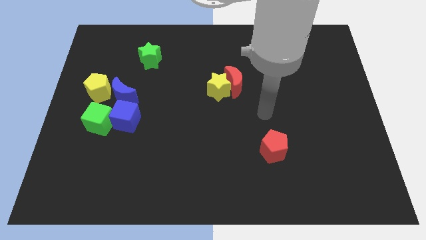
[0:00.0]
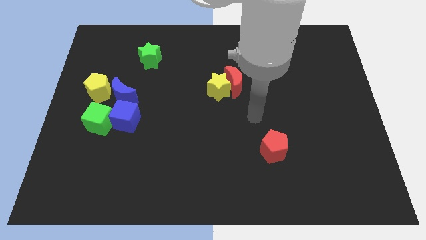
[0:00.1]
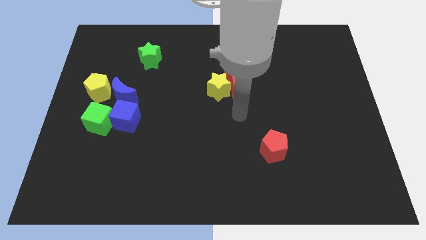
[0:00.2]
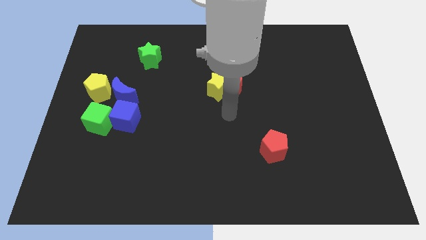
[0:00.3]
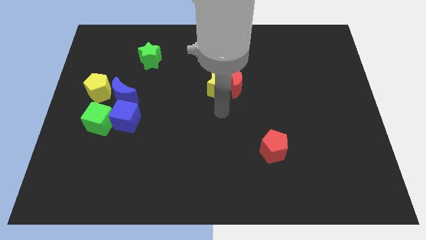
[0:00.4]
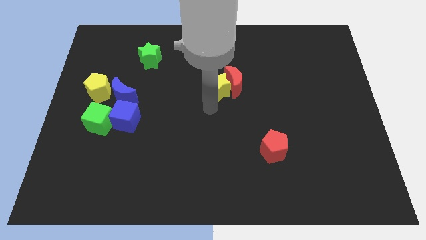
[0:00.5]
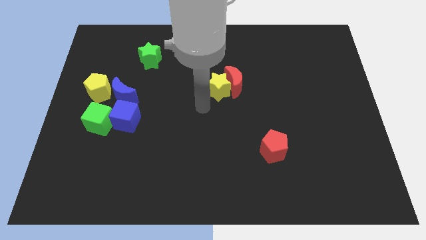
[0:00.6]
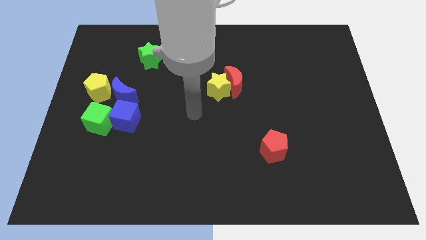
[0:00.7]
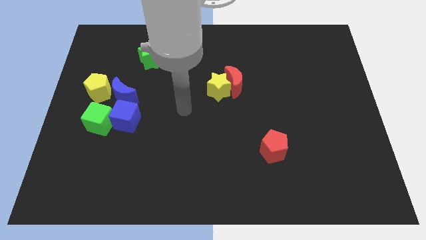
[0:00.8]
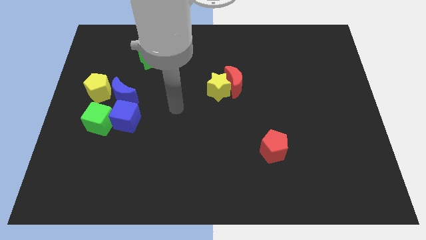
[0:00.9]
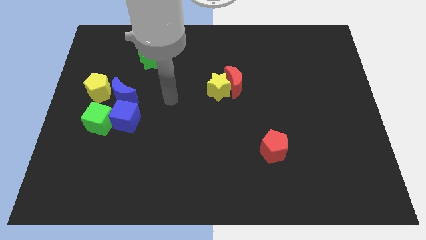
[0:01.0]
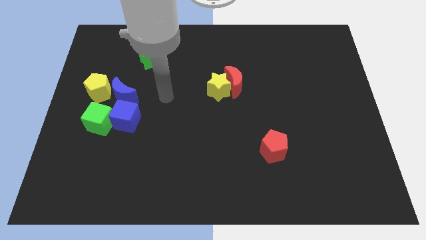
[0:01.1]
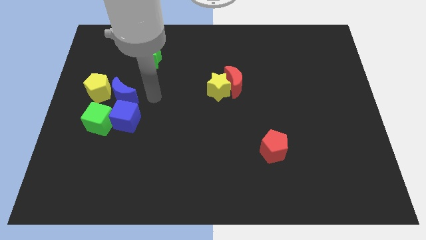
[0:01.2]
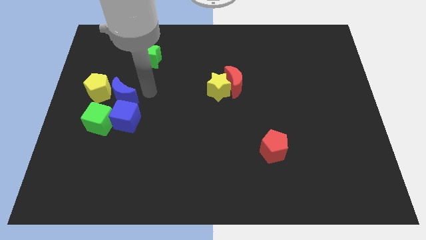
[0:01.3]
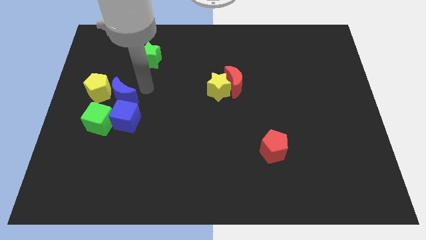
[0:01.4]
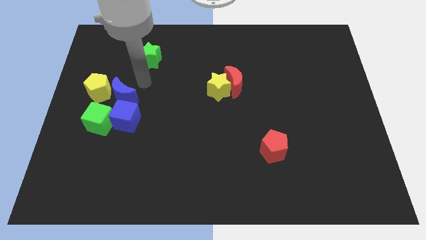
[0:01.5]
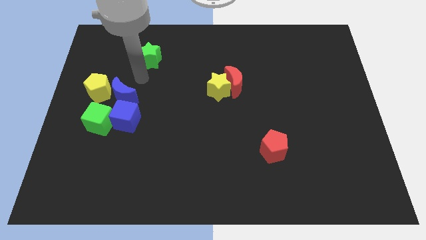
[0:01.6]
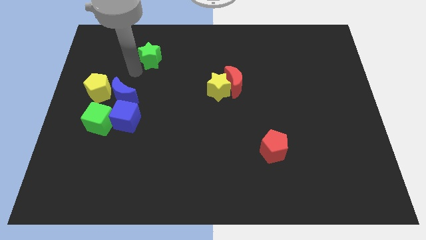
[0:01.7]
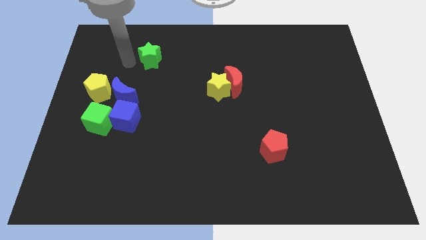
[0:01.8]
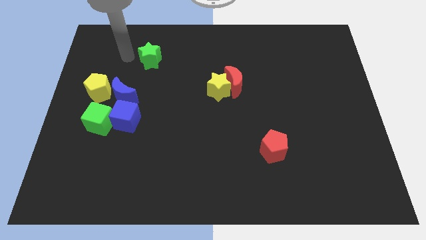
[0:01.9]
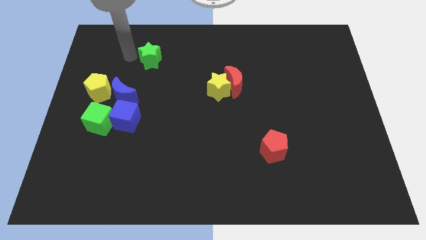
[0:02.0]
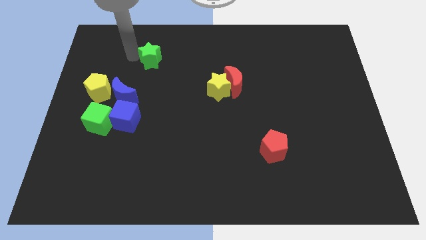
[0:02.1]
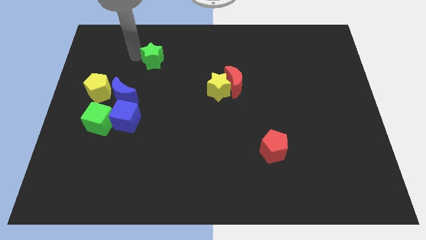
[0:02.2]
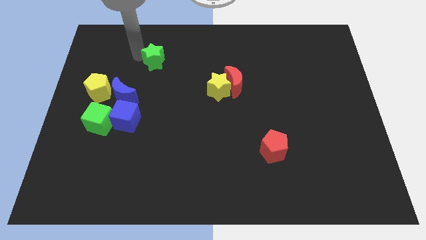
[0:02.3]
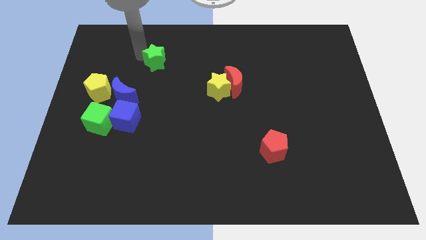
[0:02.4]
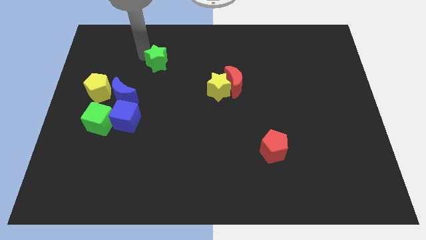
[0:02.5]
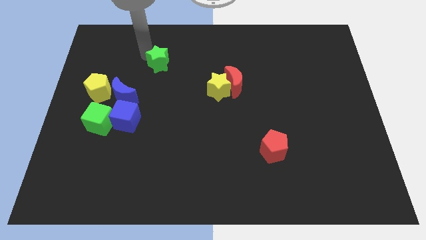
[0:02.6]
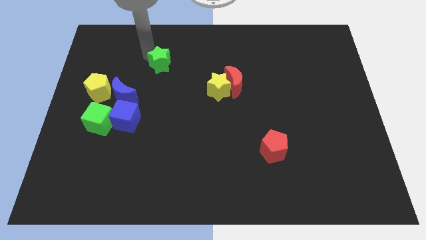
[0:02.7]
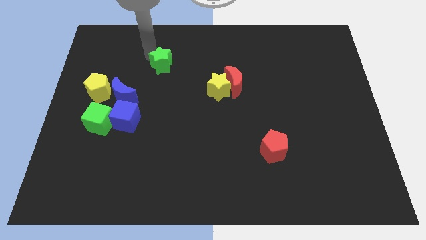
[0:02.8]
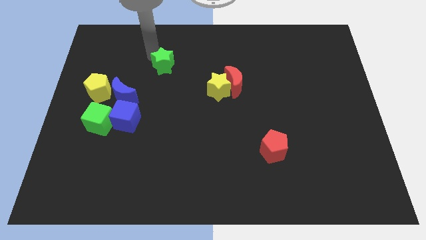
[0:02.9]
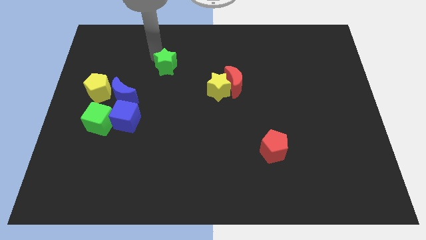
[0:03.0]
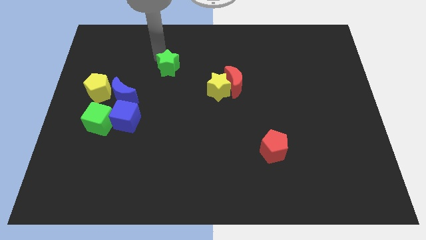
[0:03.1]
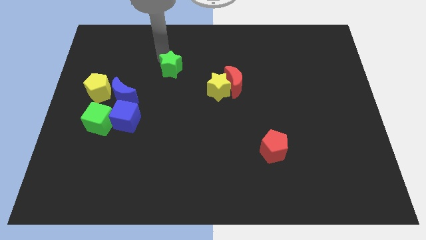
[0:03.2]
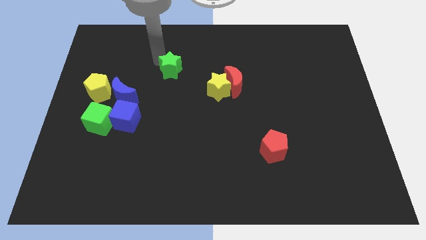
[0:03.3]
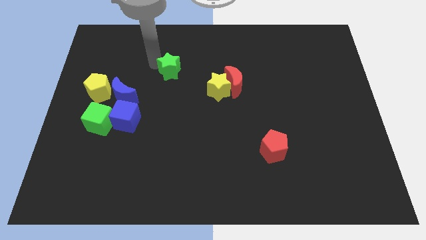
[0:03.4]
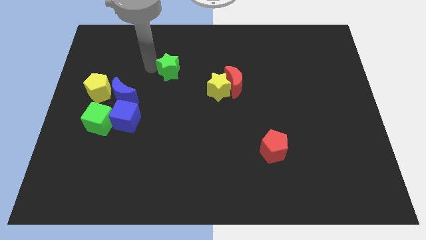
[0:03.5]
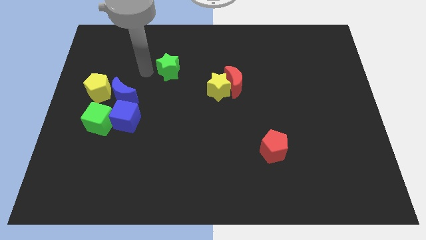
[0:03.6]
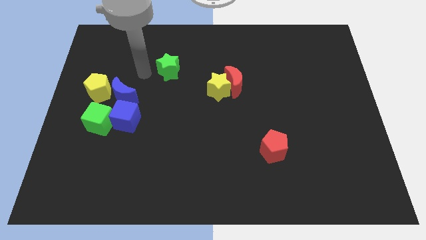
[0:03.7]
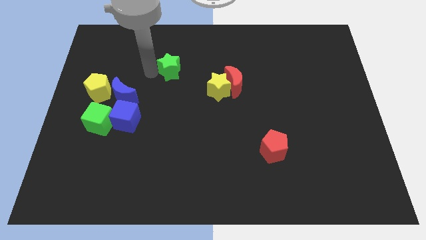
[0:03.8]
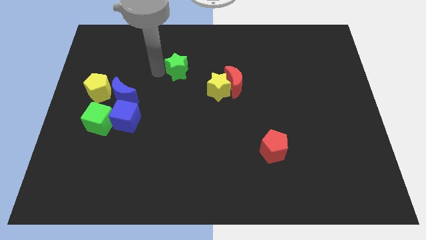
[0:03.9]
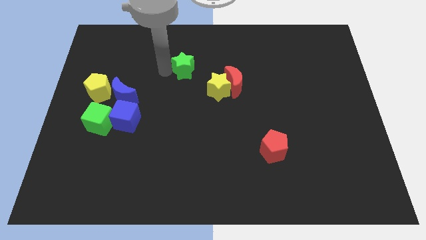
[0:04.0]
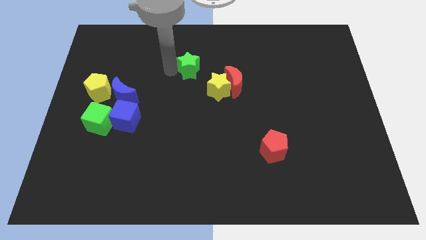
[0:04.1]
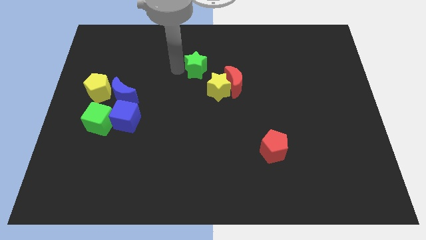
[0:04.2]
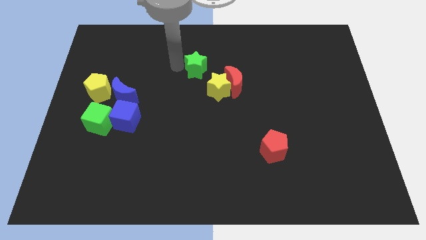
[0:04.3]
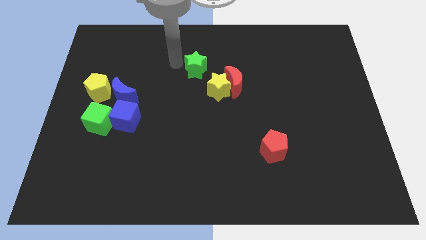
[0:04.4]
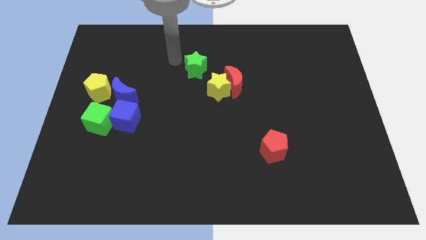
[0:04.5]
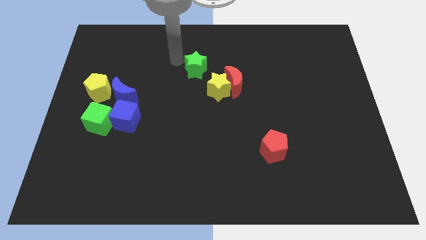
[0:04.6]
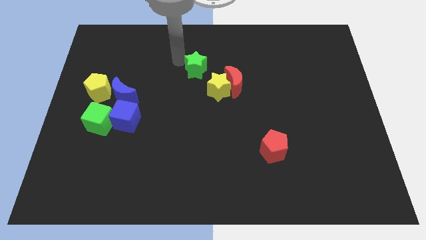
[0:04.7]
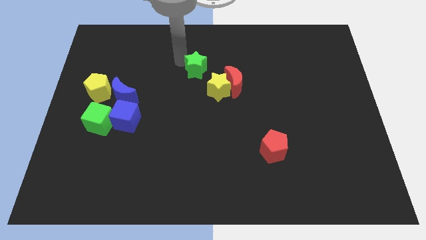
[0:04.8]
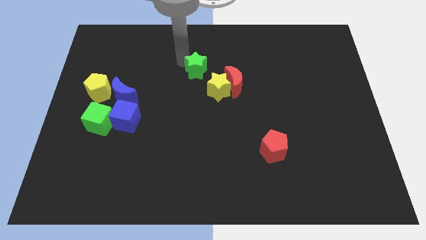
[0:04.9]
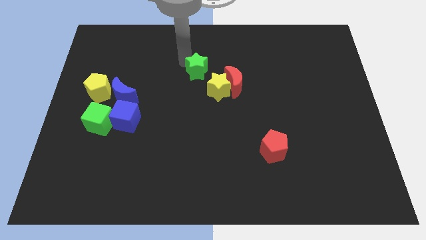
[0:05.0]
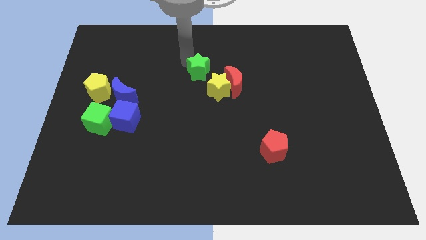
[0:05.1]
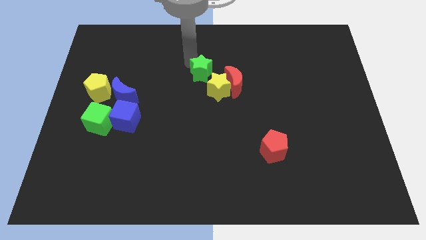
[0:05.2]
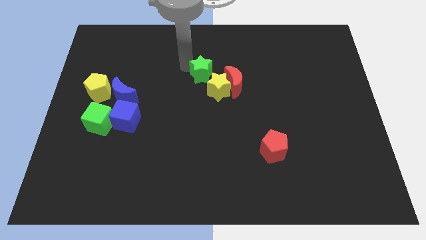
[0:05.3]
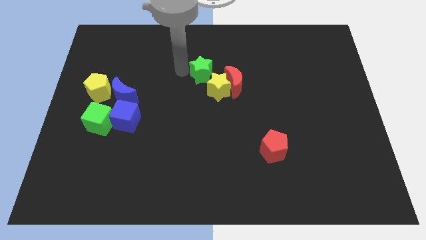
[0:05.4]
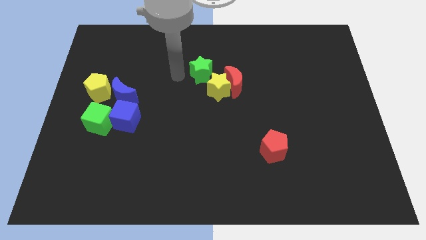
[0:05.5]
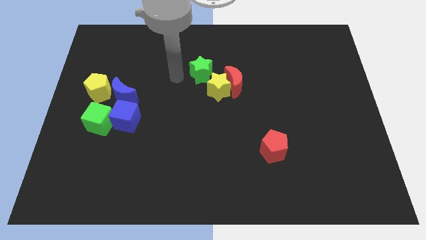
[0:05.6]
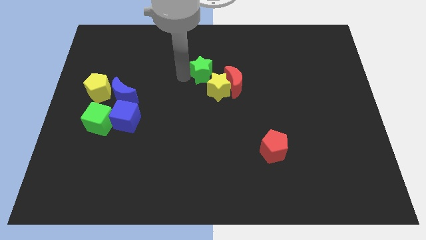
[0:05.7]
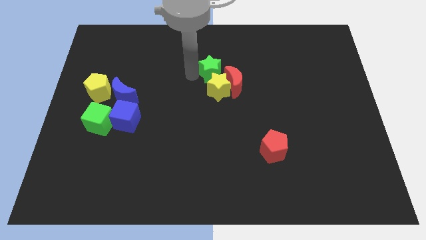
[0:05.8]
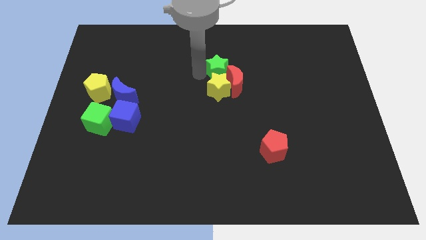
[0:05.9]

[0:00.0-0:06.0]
put the green star to the red moon

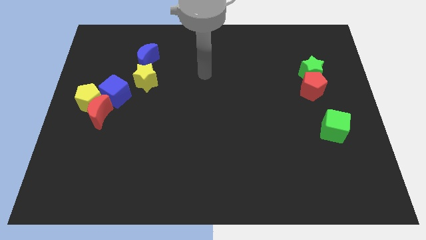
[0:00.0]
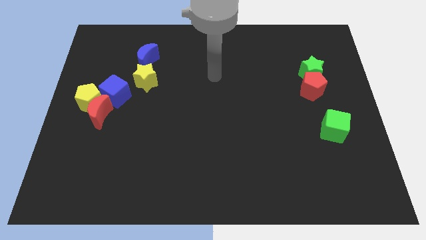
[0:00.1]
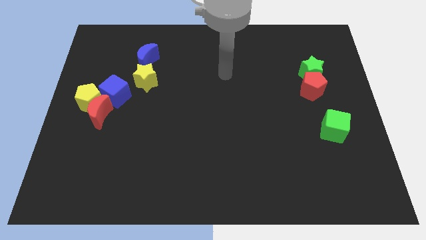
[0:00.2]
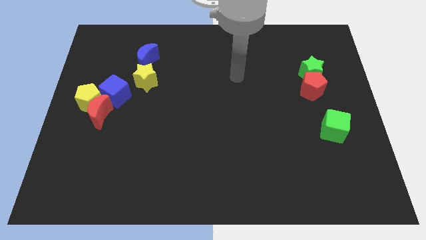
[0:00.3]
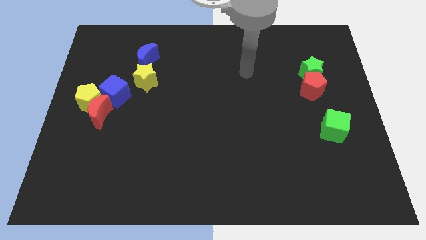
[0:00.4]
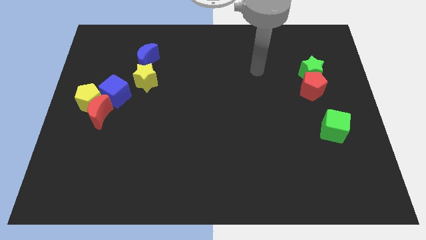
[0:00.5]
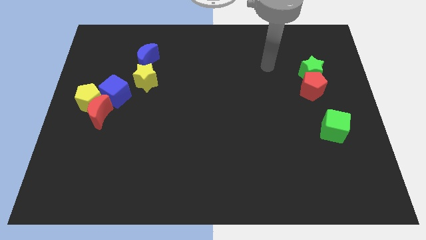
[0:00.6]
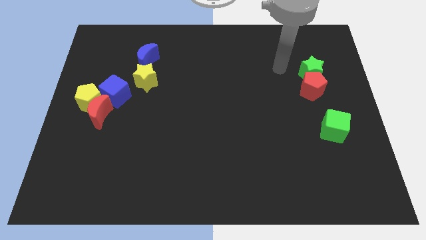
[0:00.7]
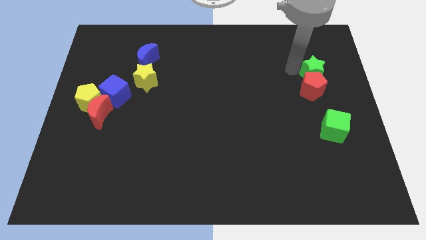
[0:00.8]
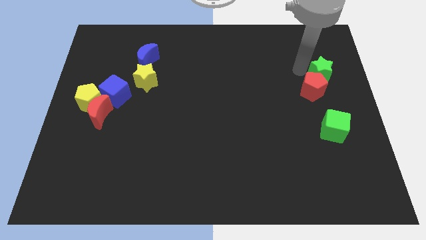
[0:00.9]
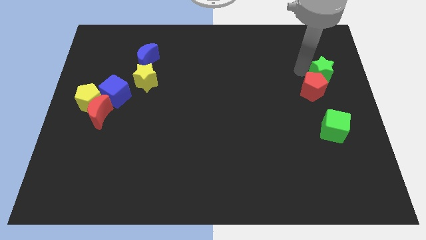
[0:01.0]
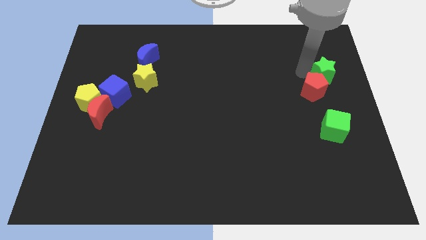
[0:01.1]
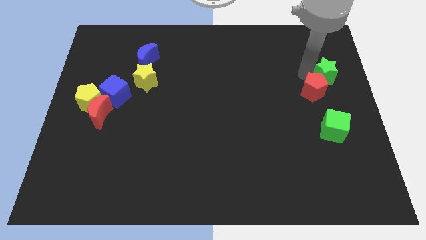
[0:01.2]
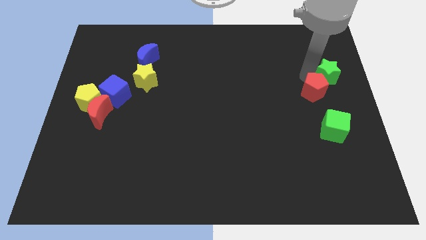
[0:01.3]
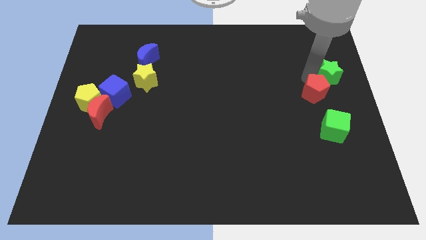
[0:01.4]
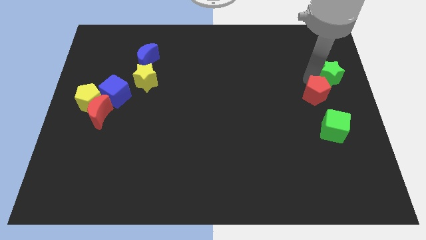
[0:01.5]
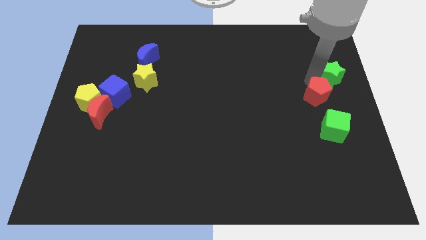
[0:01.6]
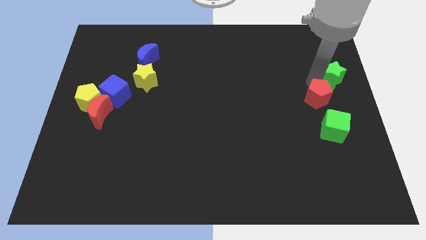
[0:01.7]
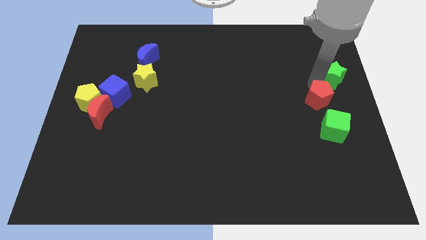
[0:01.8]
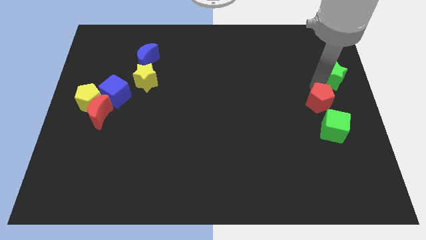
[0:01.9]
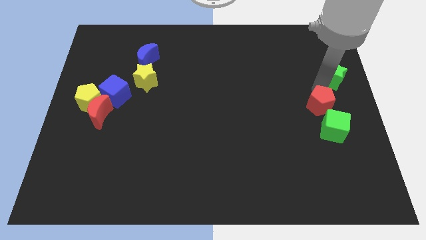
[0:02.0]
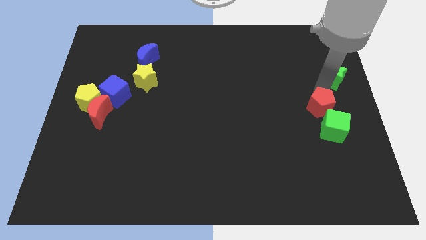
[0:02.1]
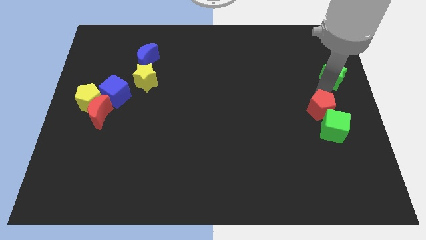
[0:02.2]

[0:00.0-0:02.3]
push the red pentagon next to the green cube
